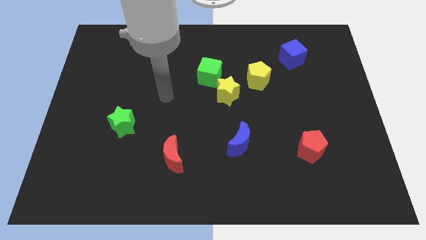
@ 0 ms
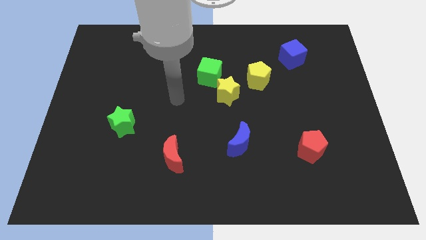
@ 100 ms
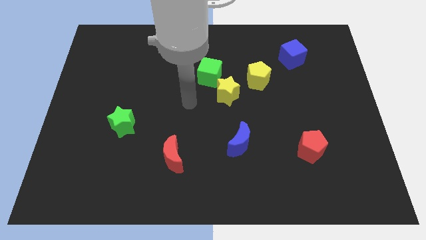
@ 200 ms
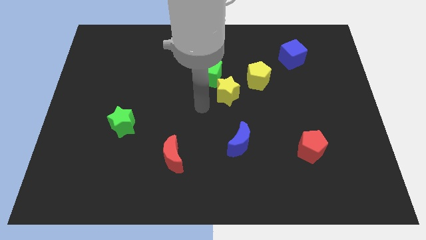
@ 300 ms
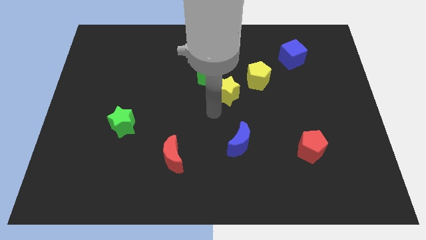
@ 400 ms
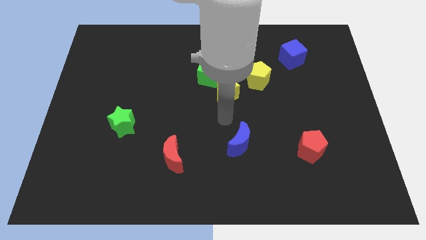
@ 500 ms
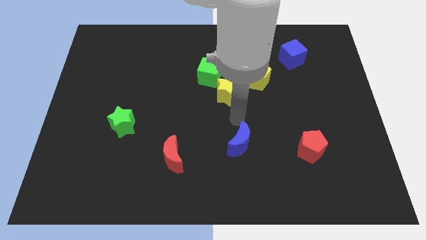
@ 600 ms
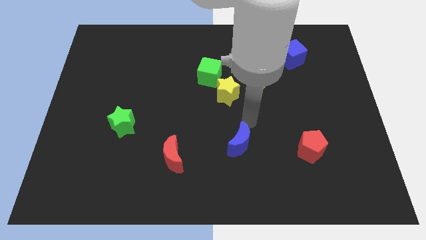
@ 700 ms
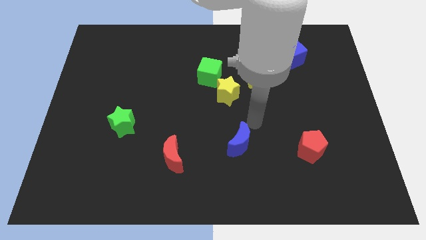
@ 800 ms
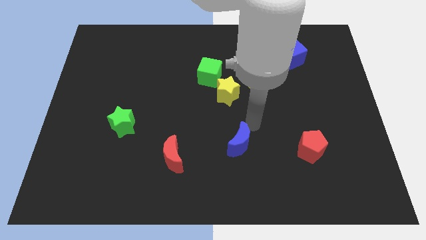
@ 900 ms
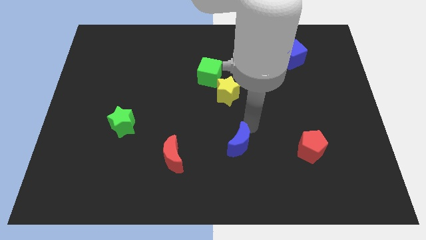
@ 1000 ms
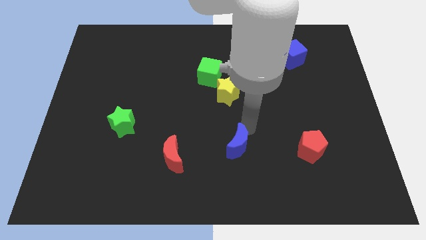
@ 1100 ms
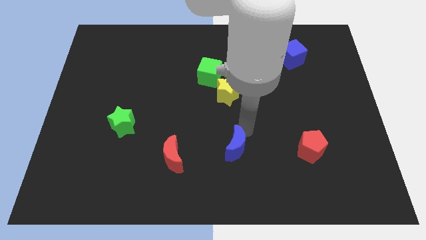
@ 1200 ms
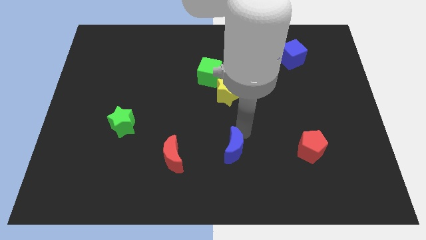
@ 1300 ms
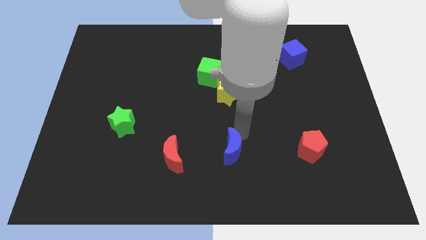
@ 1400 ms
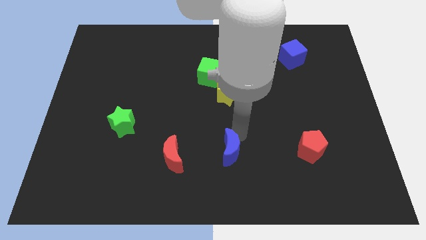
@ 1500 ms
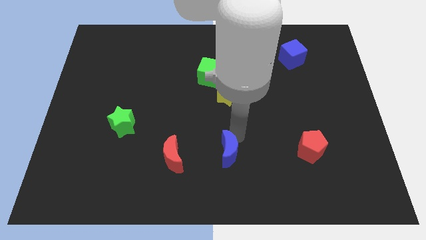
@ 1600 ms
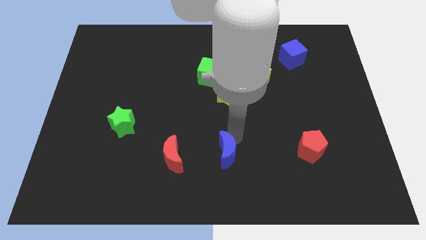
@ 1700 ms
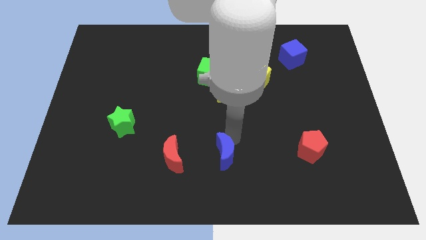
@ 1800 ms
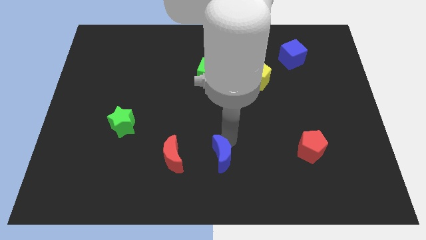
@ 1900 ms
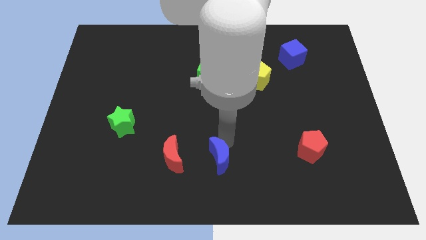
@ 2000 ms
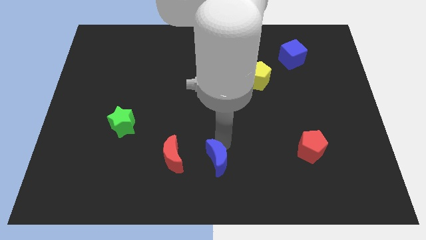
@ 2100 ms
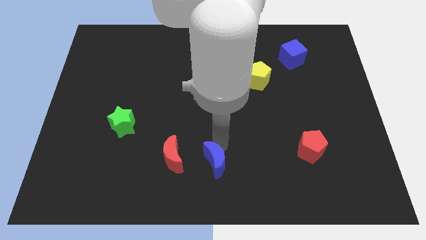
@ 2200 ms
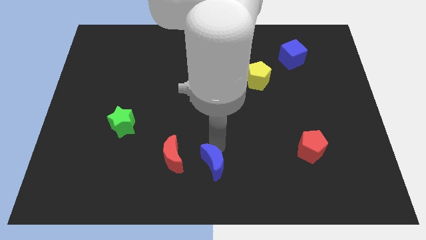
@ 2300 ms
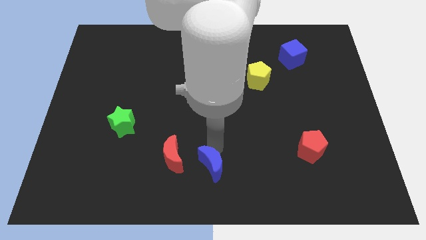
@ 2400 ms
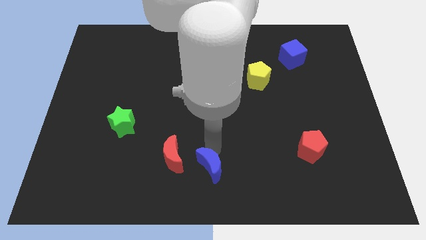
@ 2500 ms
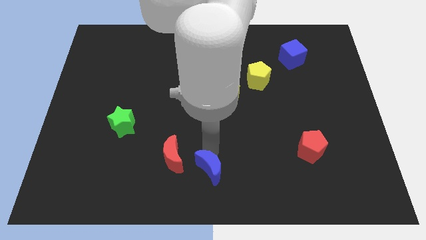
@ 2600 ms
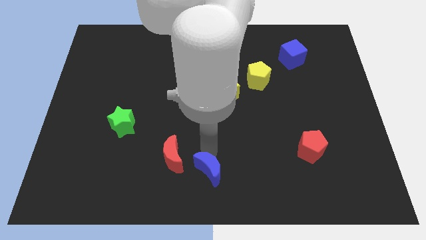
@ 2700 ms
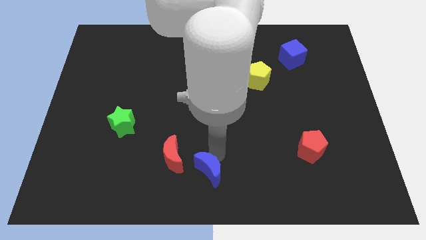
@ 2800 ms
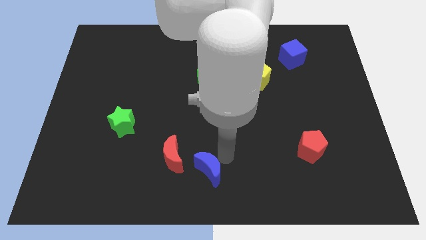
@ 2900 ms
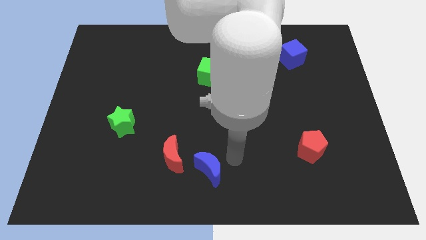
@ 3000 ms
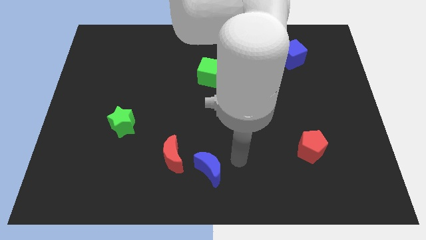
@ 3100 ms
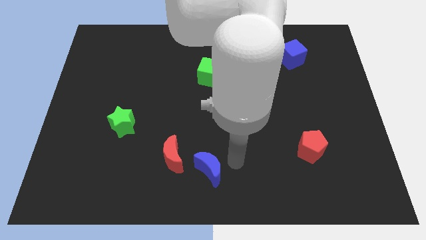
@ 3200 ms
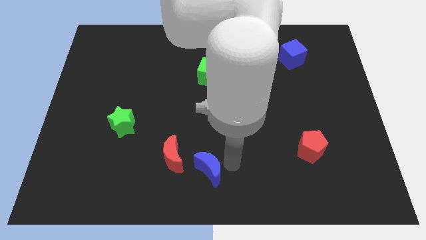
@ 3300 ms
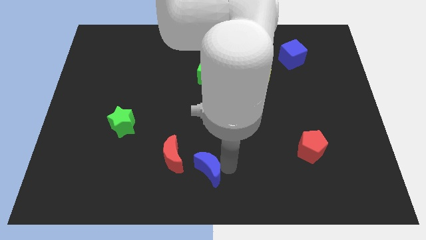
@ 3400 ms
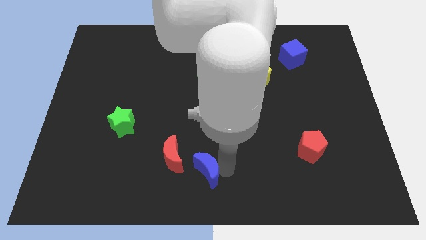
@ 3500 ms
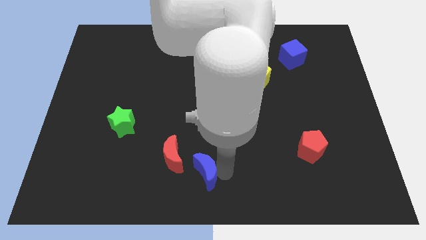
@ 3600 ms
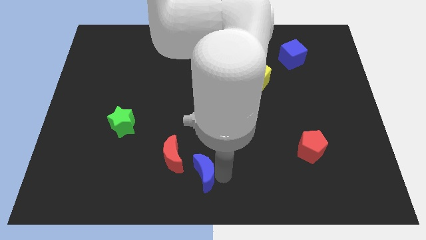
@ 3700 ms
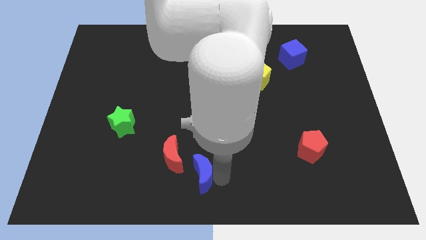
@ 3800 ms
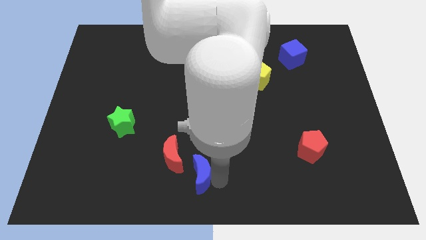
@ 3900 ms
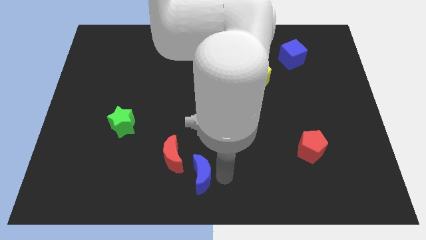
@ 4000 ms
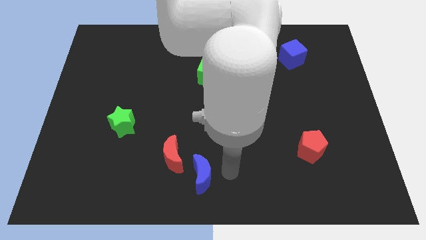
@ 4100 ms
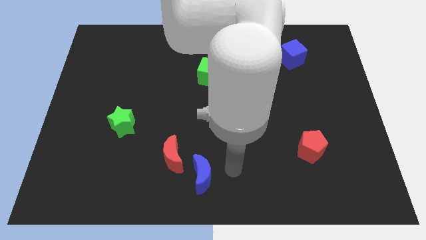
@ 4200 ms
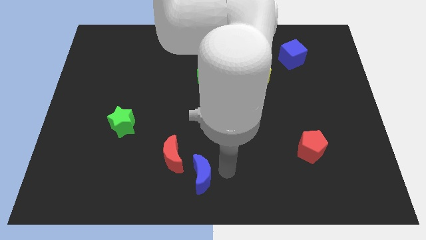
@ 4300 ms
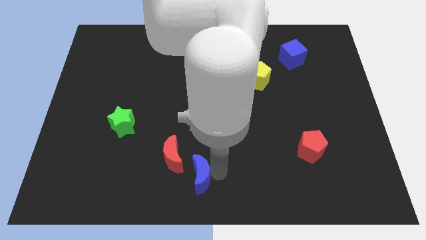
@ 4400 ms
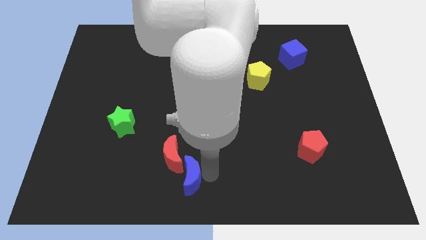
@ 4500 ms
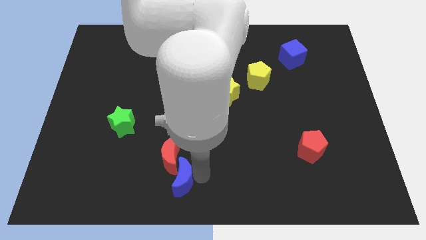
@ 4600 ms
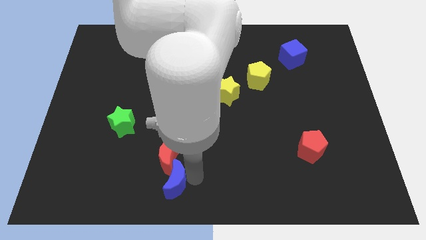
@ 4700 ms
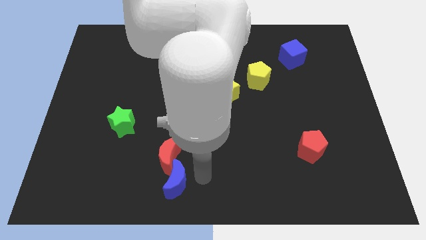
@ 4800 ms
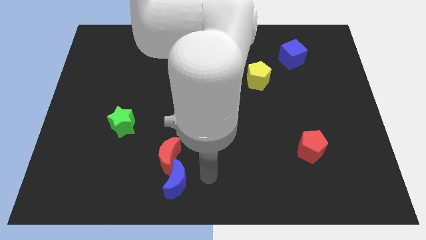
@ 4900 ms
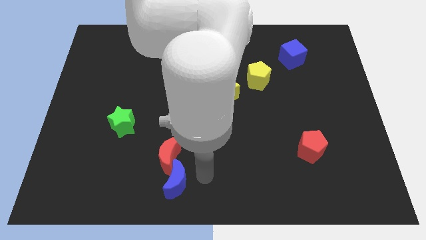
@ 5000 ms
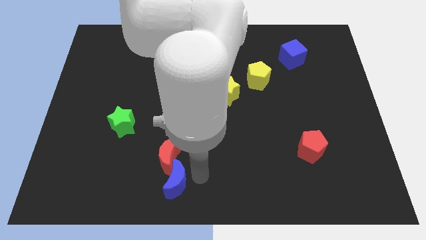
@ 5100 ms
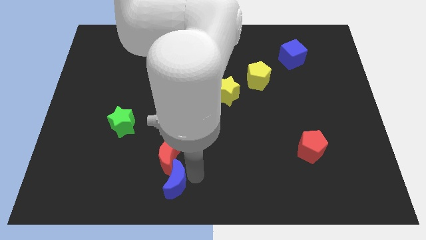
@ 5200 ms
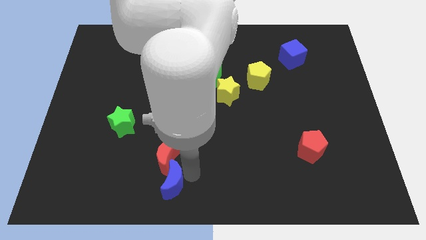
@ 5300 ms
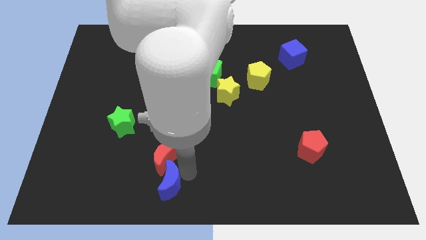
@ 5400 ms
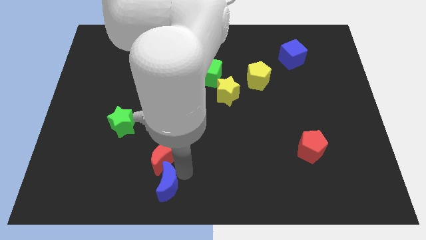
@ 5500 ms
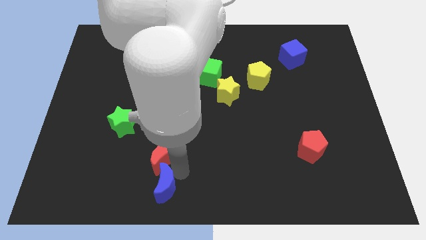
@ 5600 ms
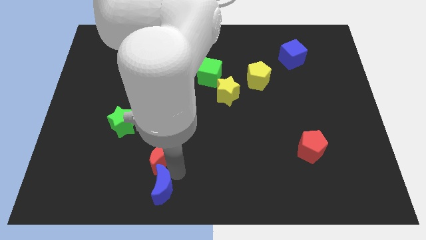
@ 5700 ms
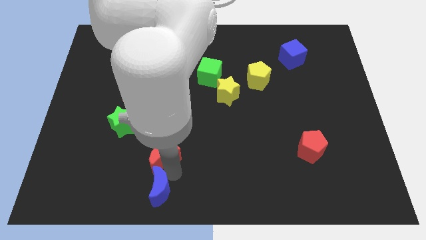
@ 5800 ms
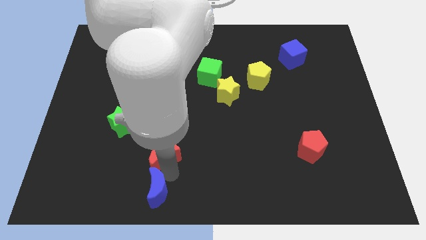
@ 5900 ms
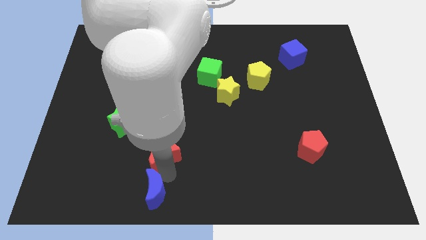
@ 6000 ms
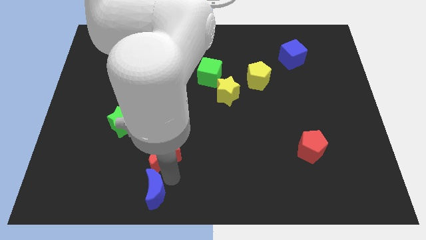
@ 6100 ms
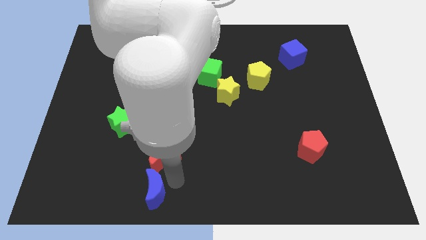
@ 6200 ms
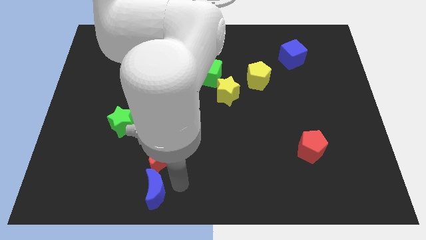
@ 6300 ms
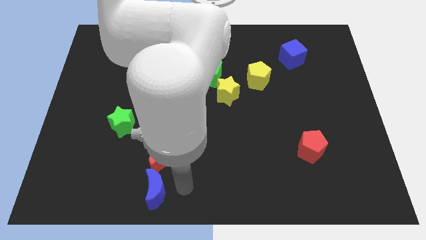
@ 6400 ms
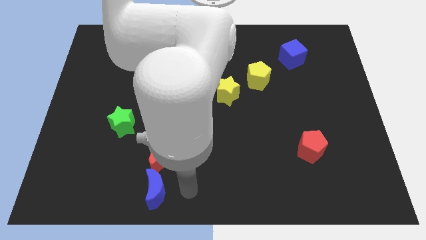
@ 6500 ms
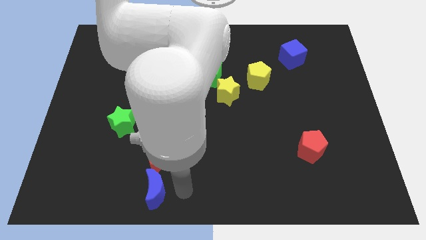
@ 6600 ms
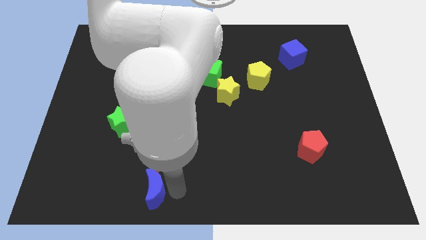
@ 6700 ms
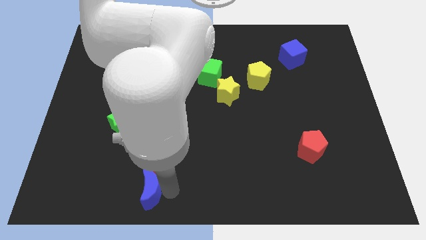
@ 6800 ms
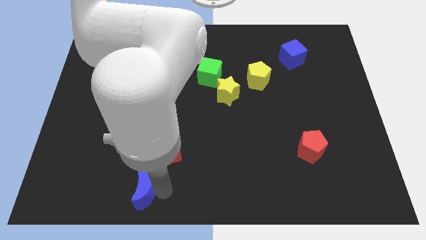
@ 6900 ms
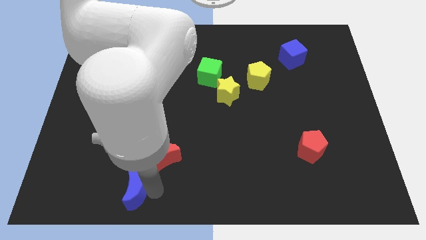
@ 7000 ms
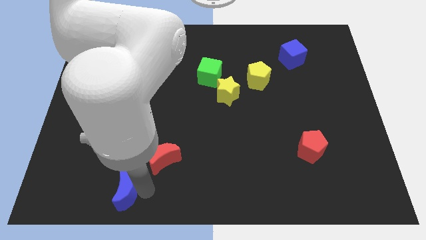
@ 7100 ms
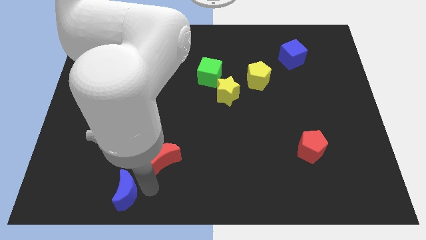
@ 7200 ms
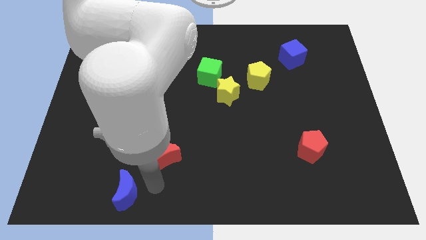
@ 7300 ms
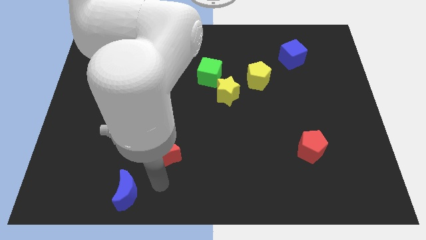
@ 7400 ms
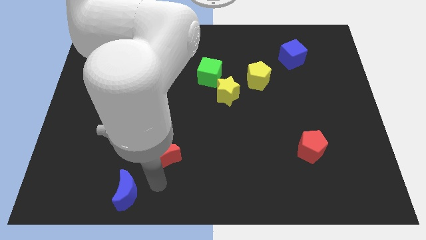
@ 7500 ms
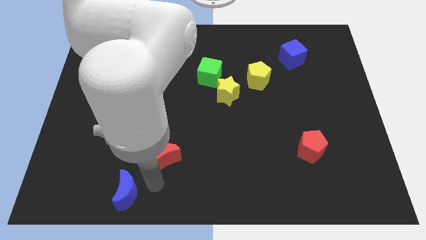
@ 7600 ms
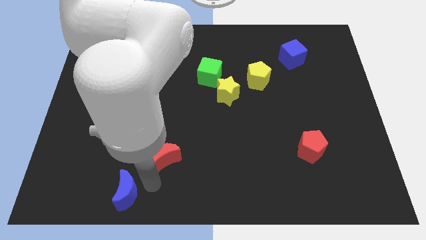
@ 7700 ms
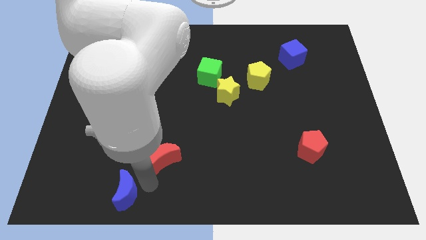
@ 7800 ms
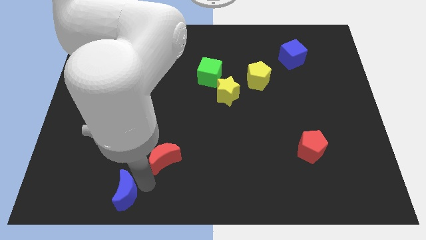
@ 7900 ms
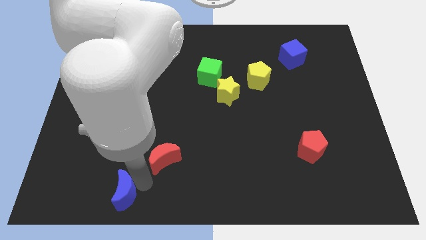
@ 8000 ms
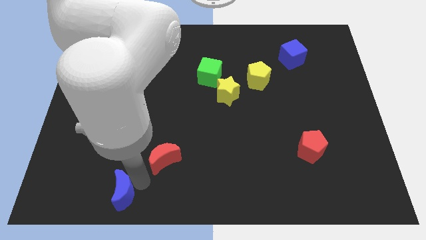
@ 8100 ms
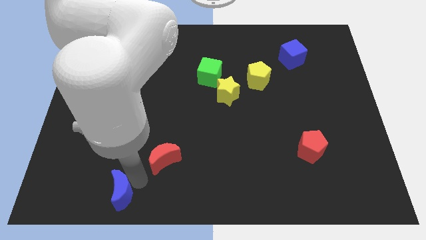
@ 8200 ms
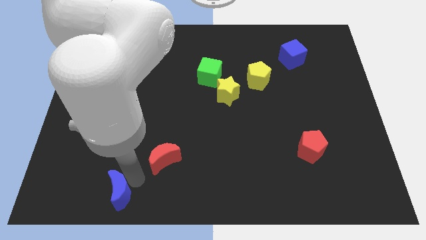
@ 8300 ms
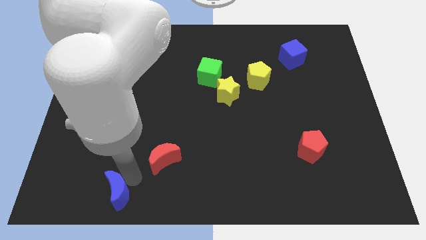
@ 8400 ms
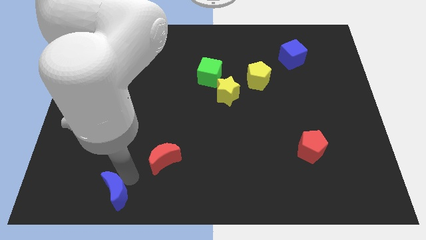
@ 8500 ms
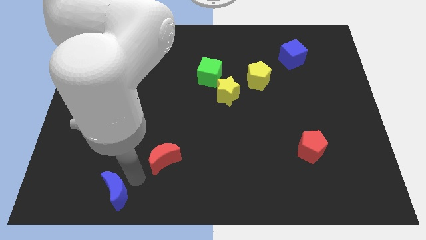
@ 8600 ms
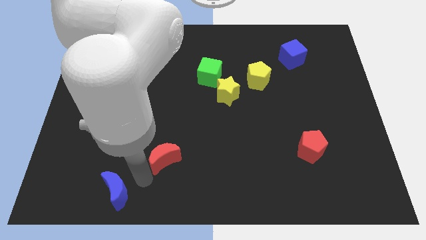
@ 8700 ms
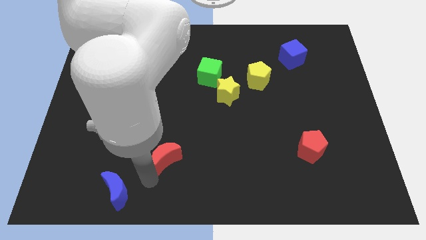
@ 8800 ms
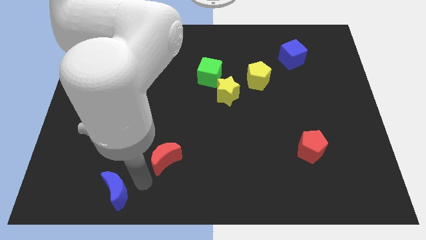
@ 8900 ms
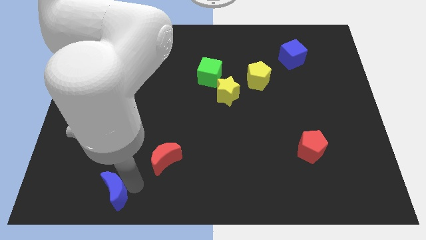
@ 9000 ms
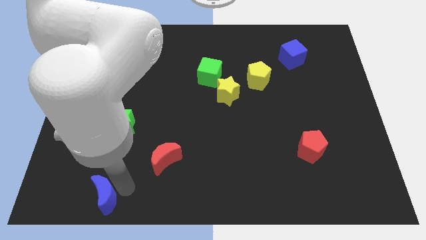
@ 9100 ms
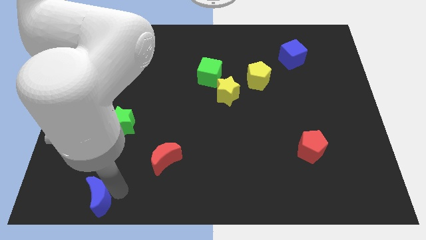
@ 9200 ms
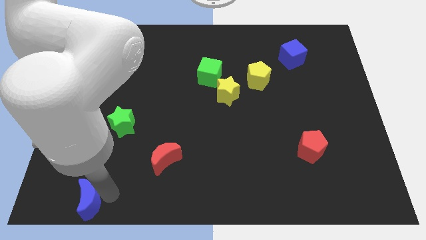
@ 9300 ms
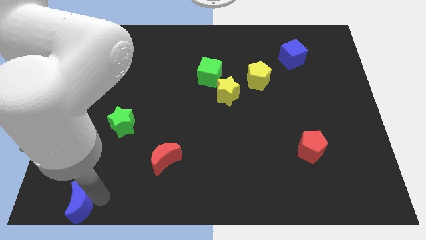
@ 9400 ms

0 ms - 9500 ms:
put the blue moon to the bottom left corner
